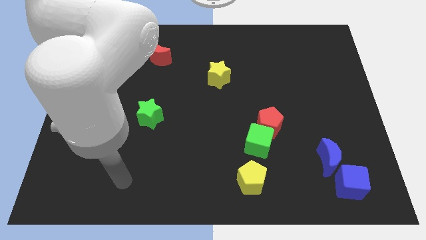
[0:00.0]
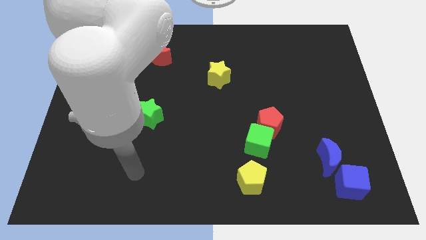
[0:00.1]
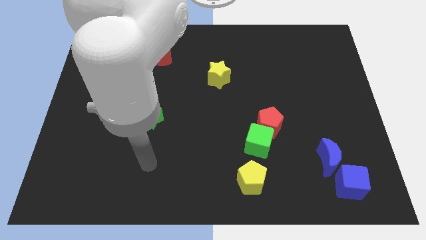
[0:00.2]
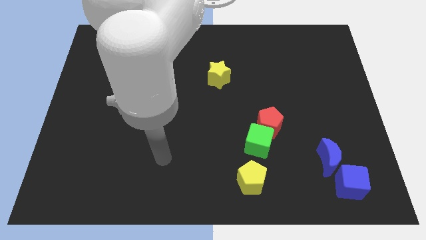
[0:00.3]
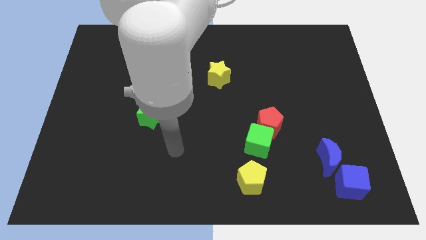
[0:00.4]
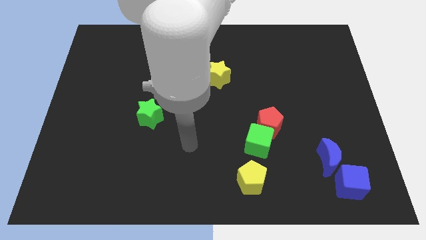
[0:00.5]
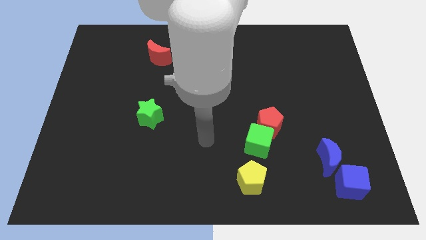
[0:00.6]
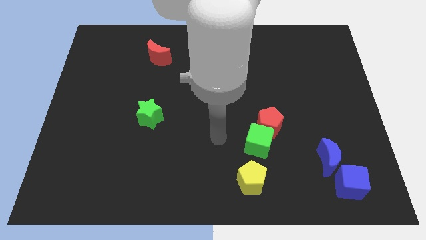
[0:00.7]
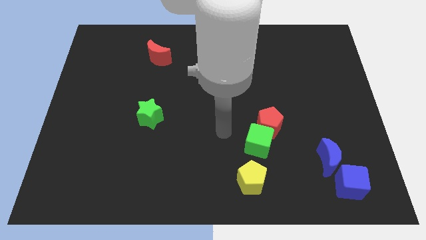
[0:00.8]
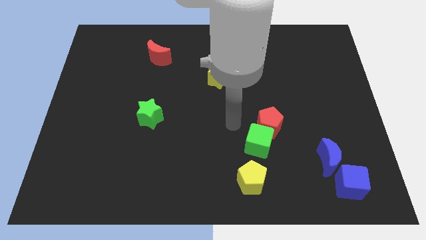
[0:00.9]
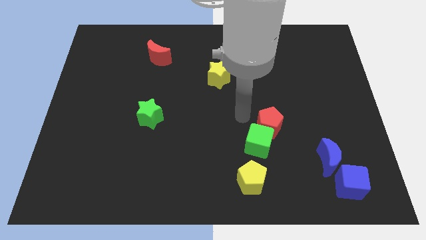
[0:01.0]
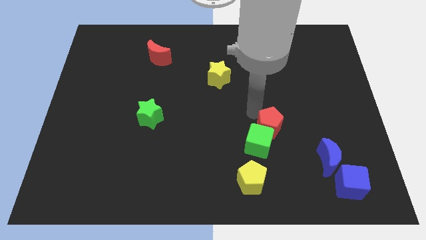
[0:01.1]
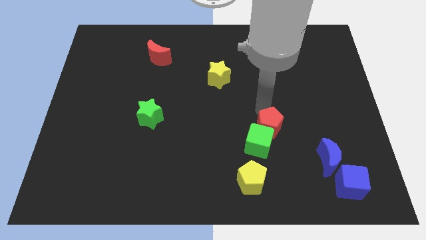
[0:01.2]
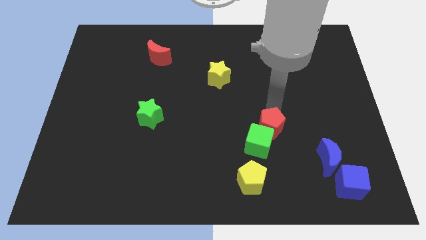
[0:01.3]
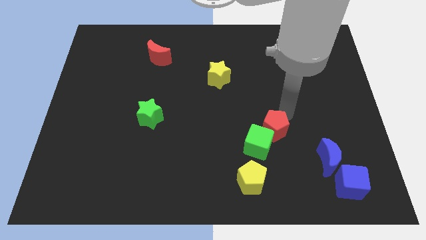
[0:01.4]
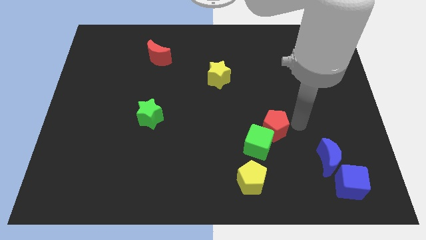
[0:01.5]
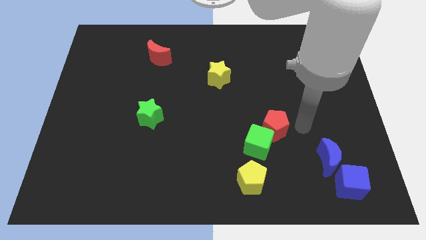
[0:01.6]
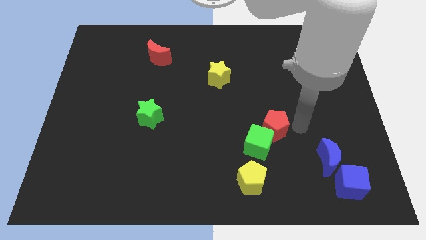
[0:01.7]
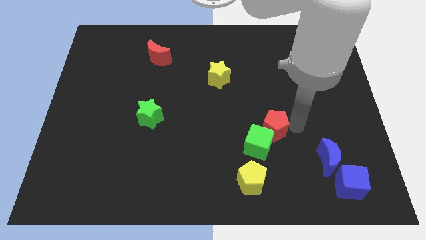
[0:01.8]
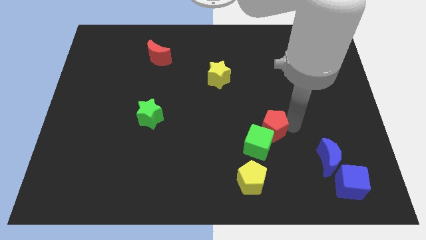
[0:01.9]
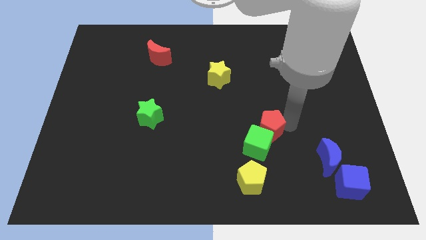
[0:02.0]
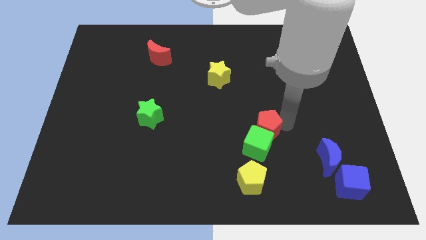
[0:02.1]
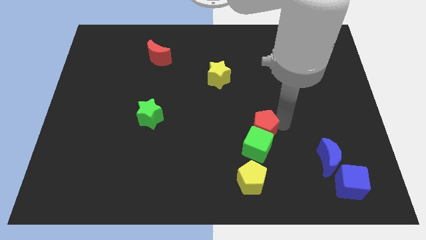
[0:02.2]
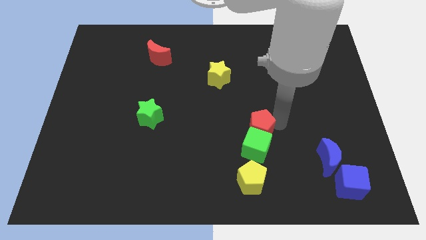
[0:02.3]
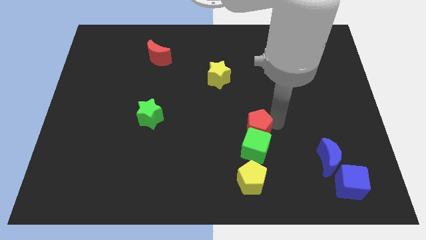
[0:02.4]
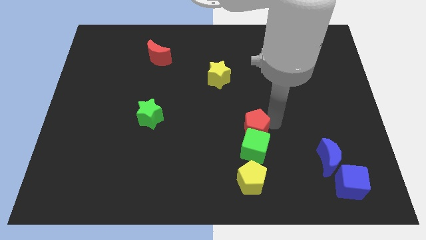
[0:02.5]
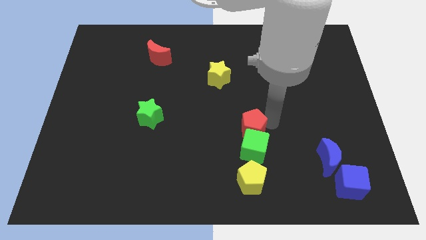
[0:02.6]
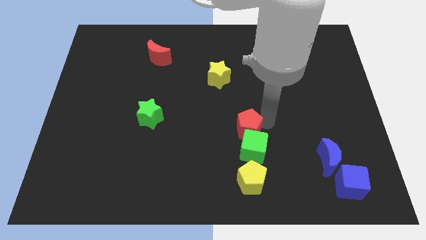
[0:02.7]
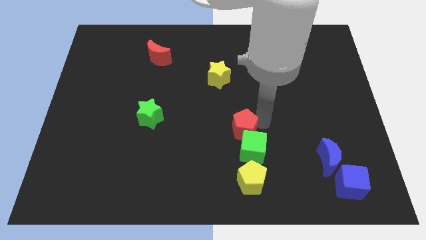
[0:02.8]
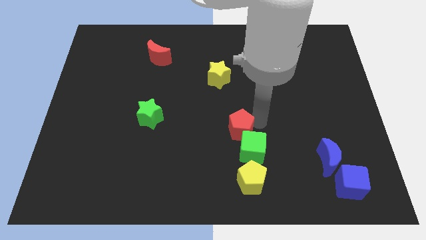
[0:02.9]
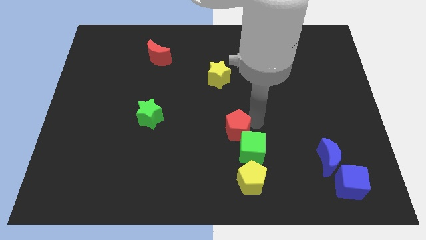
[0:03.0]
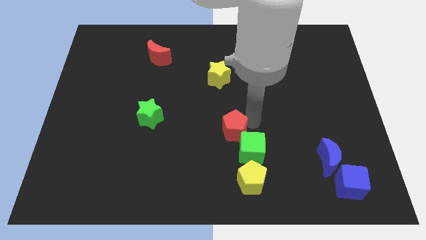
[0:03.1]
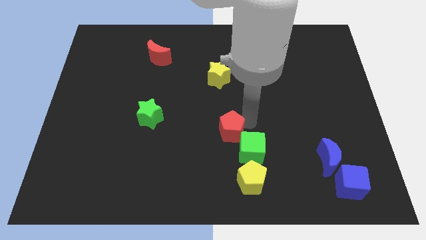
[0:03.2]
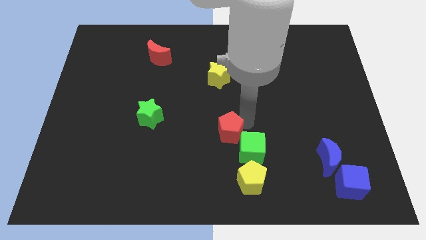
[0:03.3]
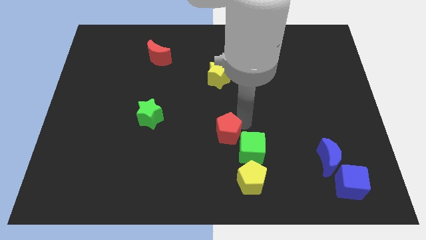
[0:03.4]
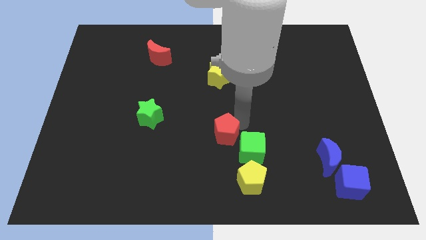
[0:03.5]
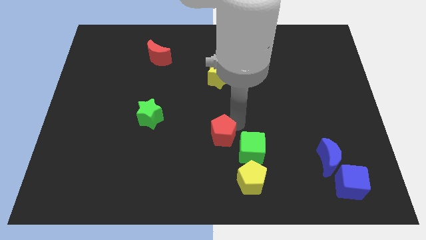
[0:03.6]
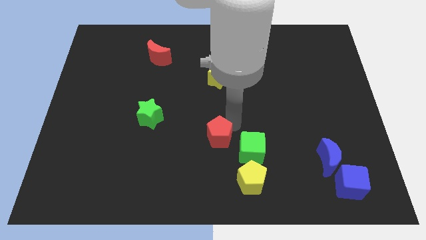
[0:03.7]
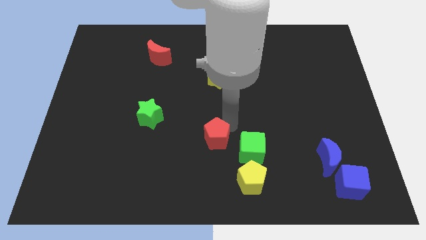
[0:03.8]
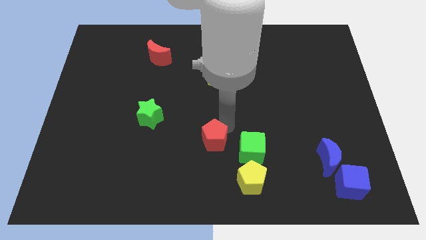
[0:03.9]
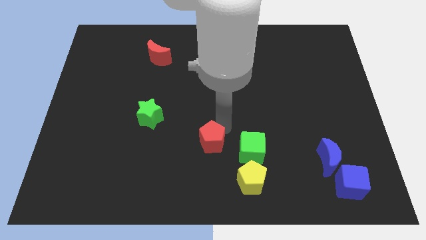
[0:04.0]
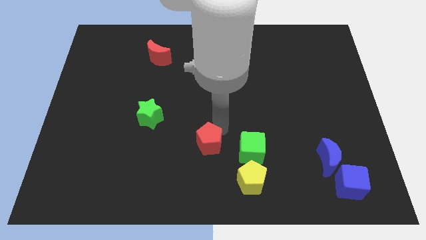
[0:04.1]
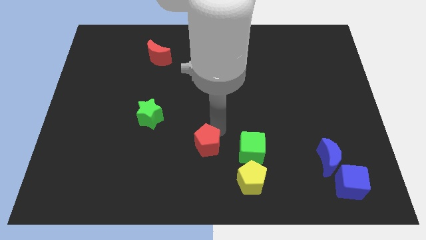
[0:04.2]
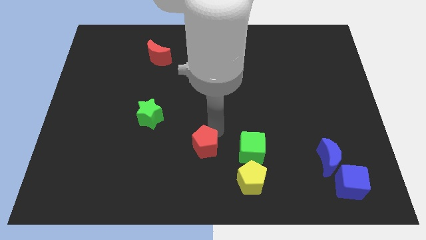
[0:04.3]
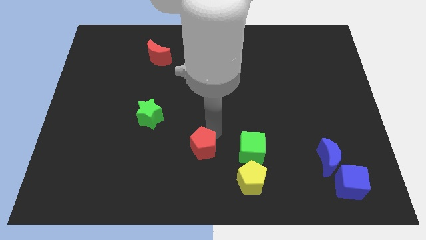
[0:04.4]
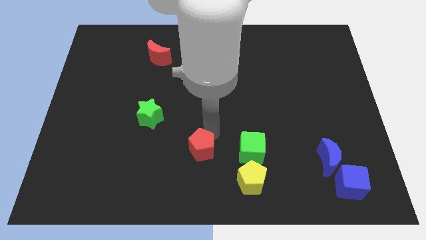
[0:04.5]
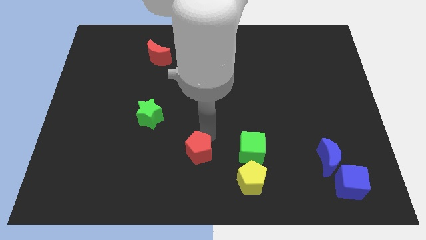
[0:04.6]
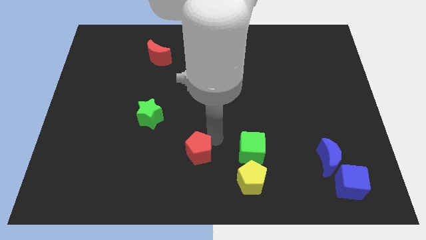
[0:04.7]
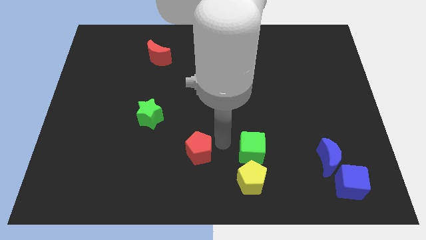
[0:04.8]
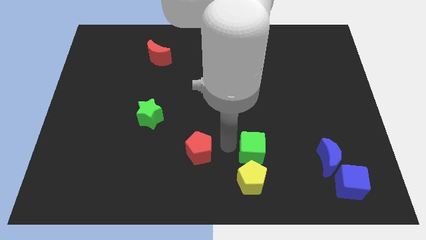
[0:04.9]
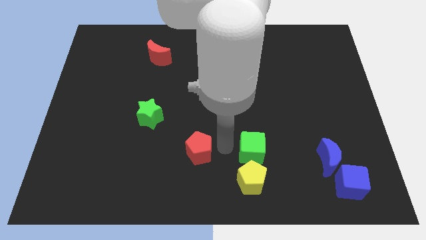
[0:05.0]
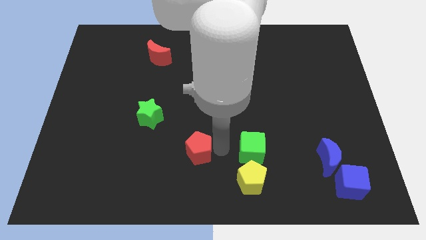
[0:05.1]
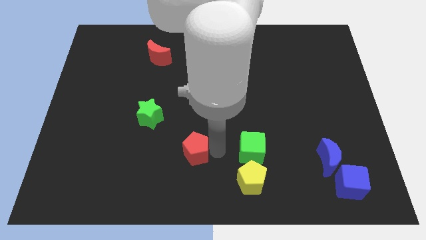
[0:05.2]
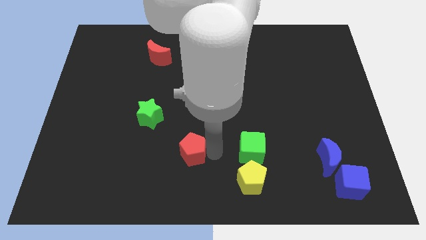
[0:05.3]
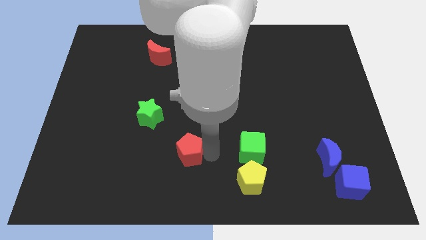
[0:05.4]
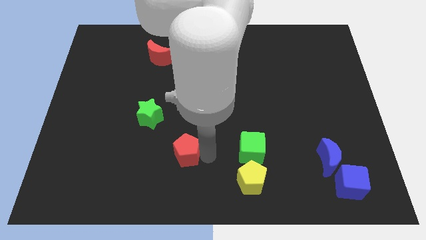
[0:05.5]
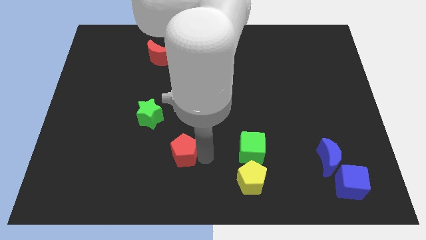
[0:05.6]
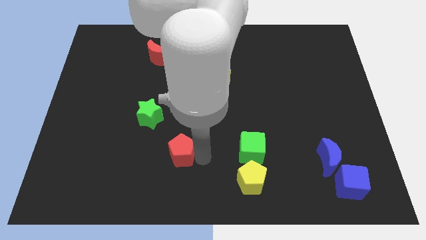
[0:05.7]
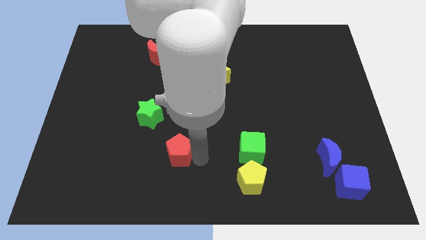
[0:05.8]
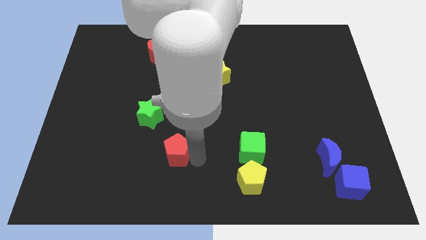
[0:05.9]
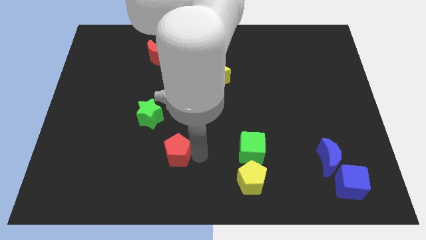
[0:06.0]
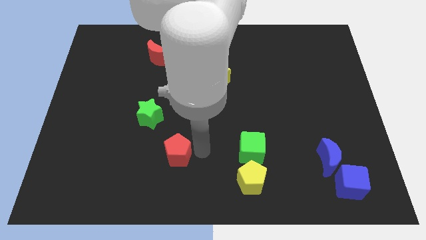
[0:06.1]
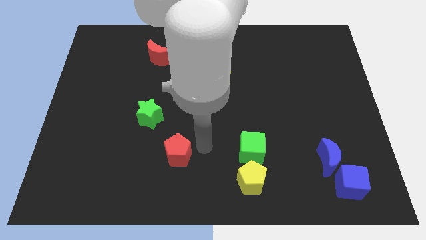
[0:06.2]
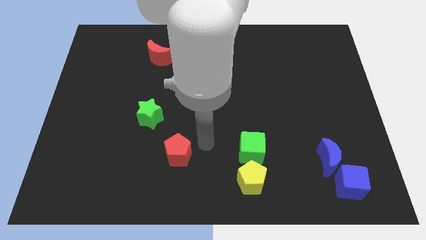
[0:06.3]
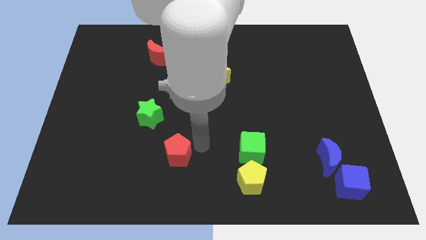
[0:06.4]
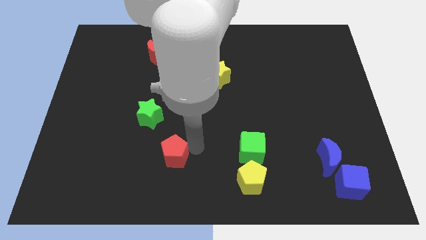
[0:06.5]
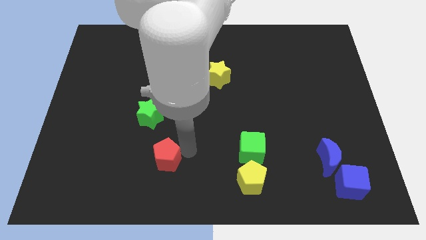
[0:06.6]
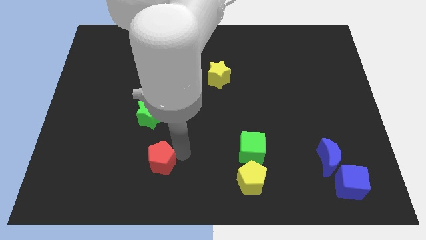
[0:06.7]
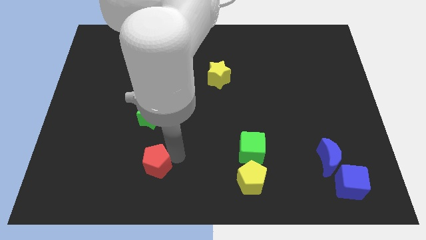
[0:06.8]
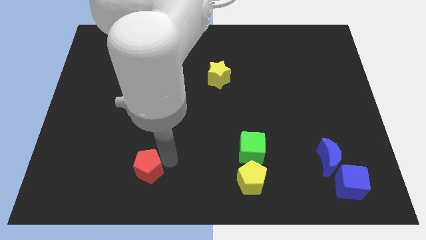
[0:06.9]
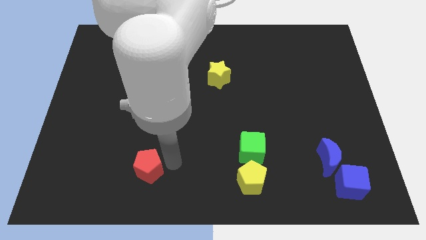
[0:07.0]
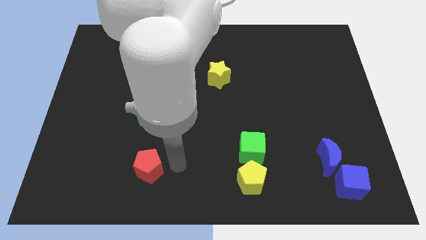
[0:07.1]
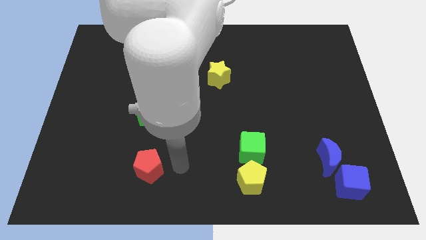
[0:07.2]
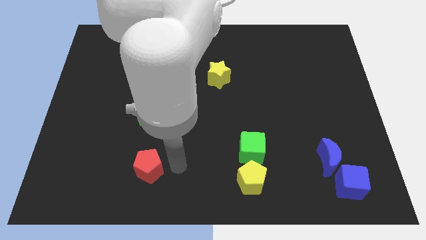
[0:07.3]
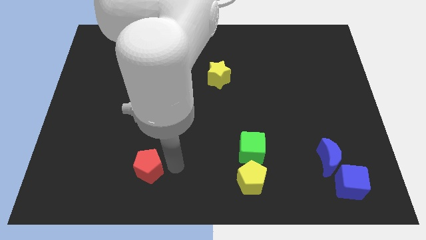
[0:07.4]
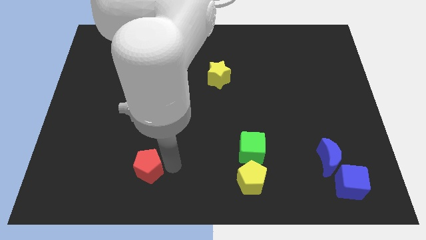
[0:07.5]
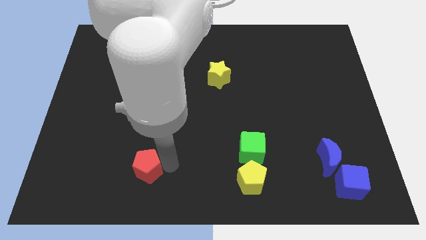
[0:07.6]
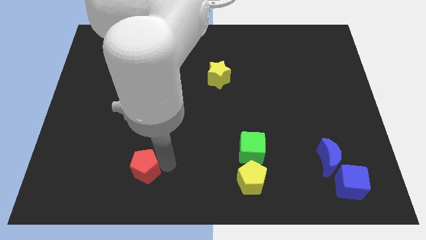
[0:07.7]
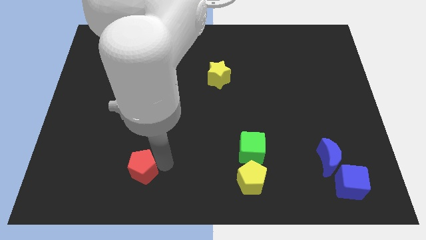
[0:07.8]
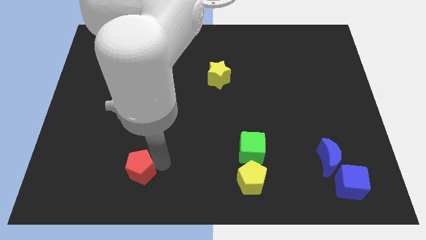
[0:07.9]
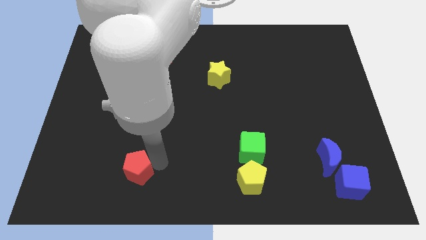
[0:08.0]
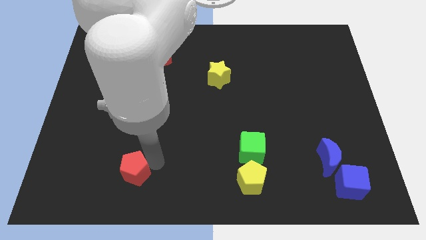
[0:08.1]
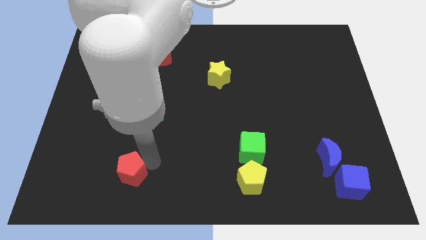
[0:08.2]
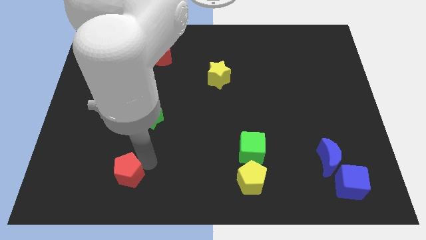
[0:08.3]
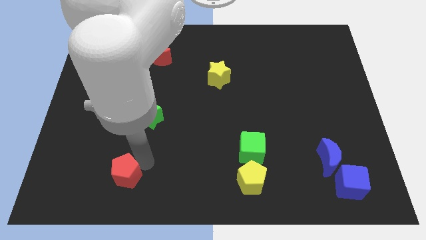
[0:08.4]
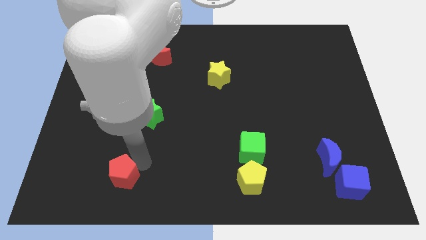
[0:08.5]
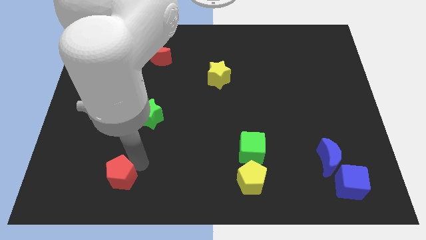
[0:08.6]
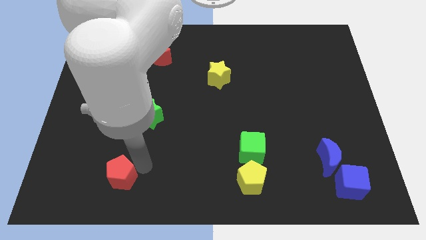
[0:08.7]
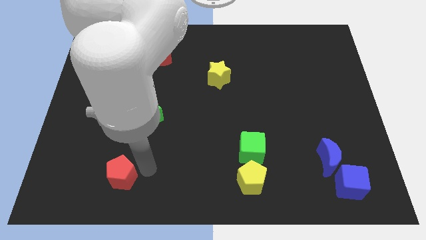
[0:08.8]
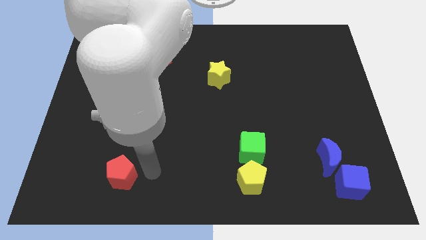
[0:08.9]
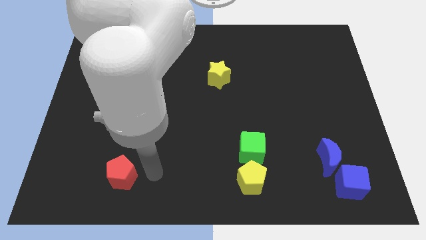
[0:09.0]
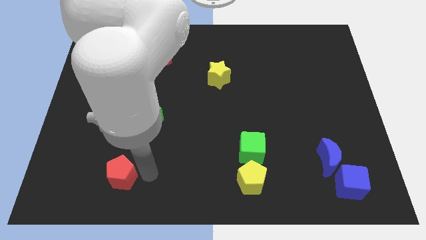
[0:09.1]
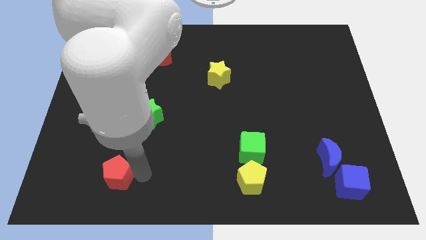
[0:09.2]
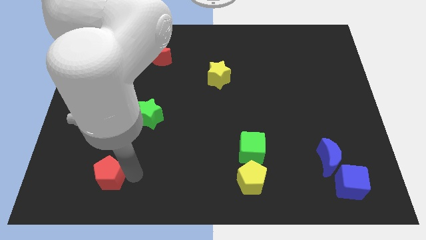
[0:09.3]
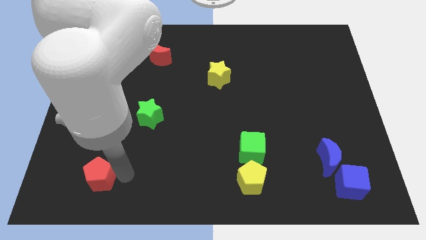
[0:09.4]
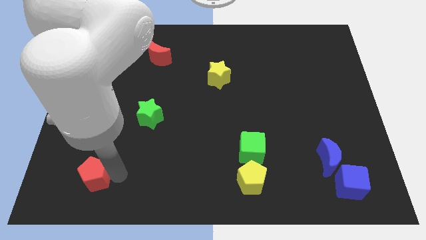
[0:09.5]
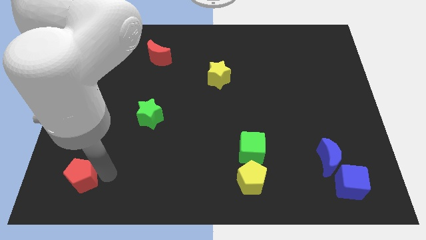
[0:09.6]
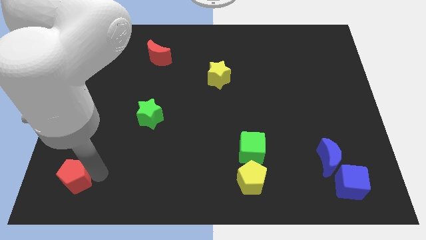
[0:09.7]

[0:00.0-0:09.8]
slide the red pentagon to the bottom left
